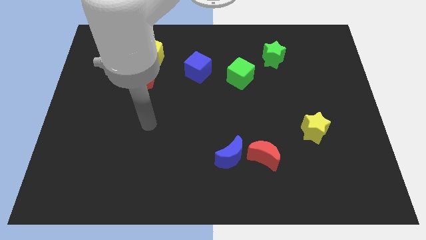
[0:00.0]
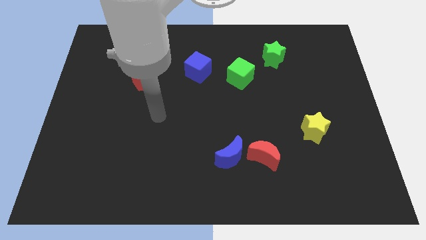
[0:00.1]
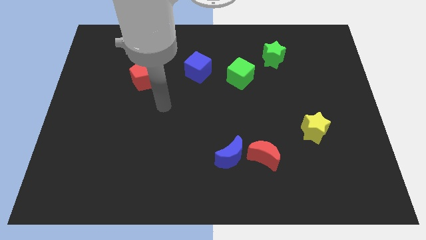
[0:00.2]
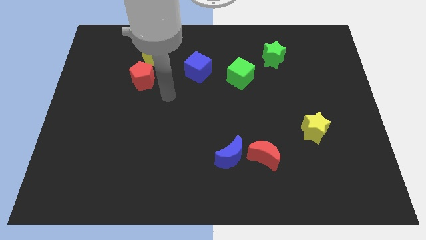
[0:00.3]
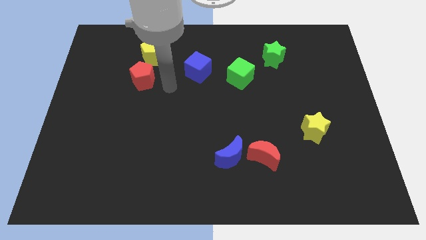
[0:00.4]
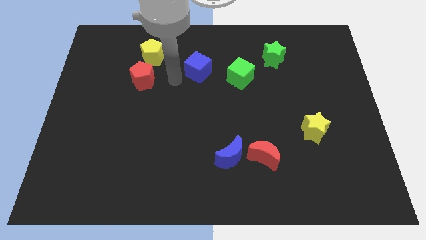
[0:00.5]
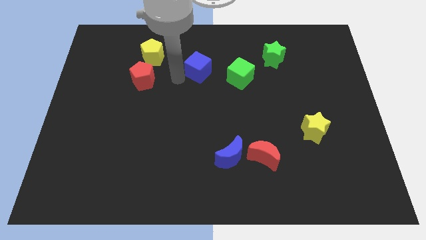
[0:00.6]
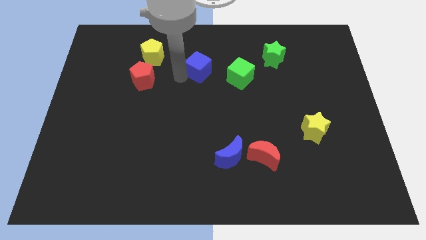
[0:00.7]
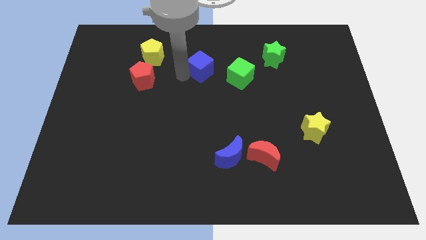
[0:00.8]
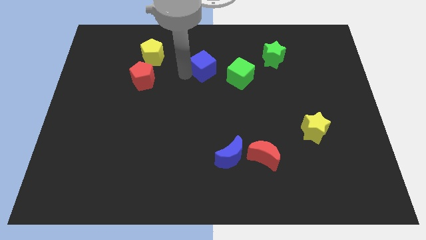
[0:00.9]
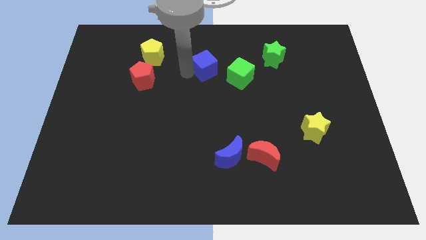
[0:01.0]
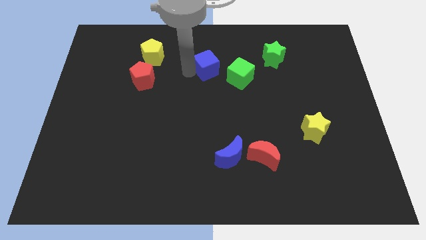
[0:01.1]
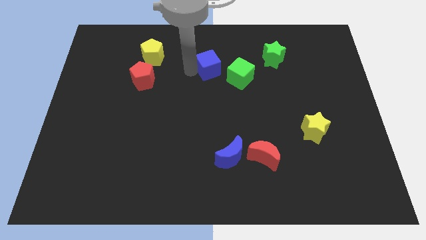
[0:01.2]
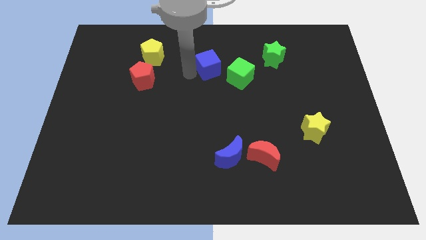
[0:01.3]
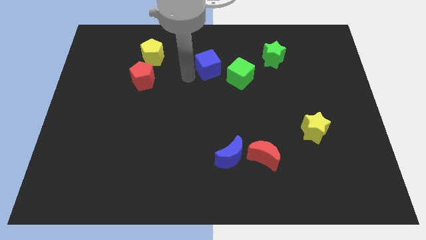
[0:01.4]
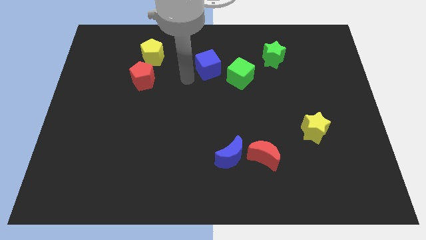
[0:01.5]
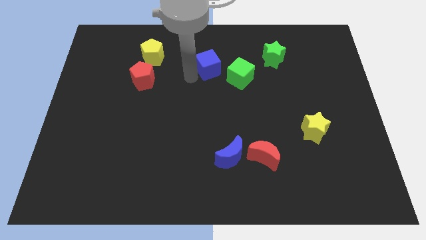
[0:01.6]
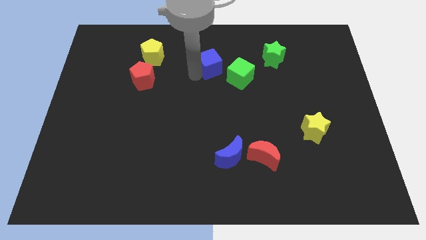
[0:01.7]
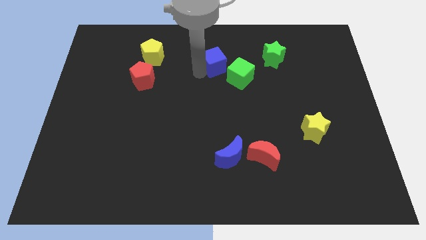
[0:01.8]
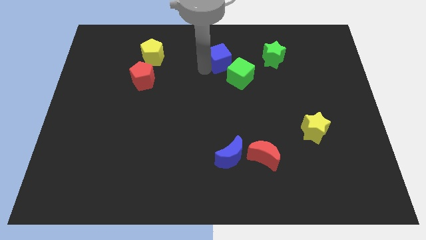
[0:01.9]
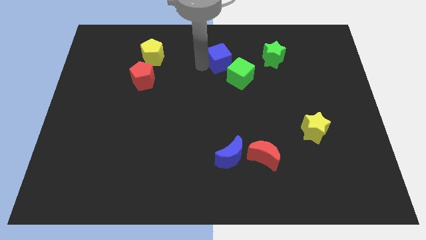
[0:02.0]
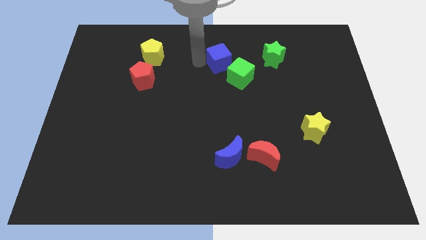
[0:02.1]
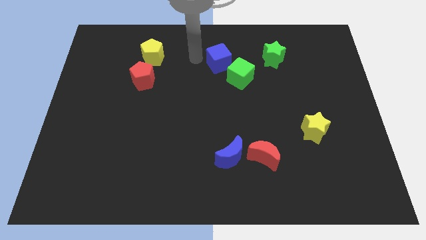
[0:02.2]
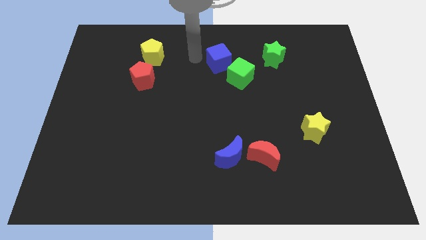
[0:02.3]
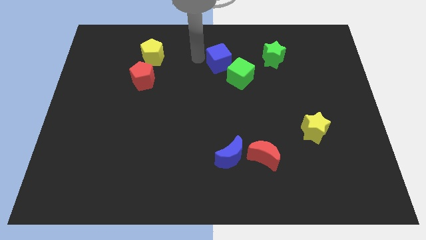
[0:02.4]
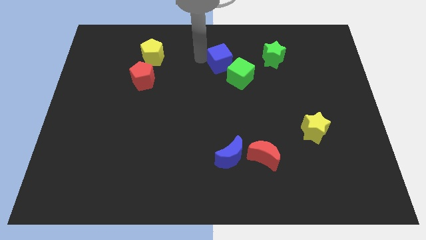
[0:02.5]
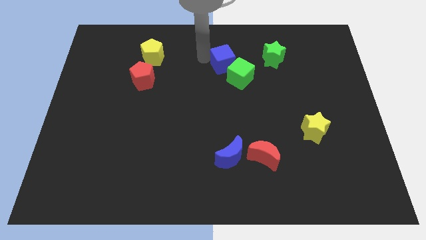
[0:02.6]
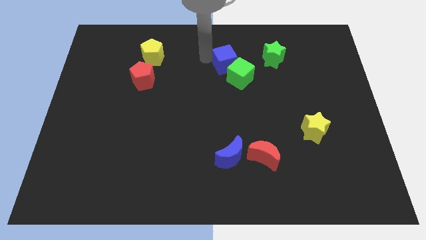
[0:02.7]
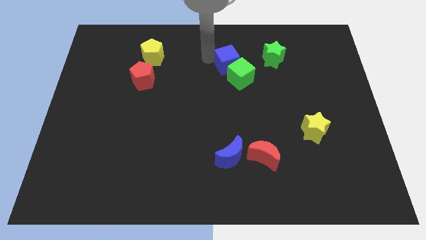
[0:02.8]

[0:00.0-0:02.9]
slightly slide the blue cube right

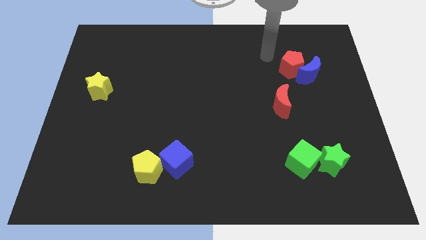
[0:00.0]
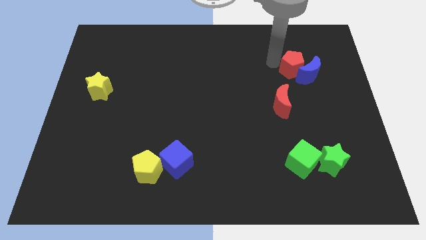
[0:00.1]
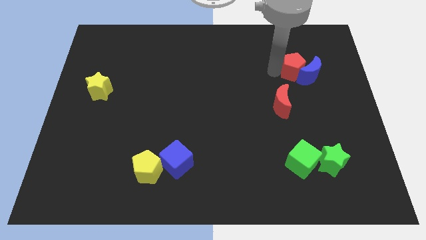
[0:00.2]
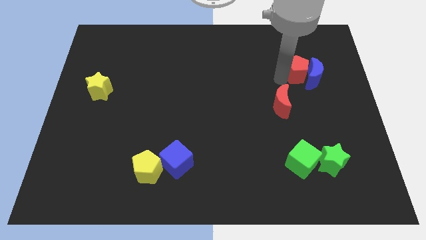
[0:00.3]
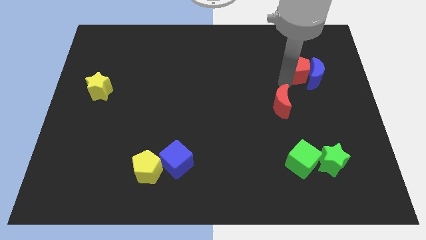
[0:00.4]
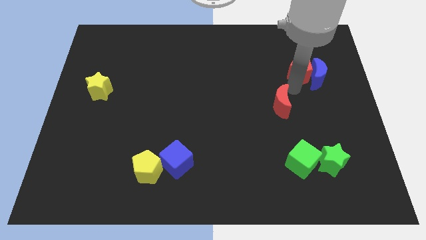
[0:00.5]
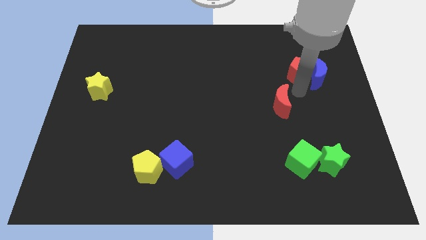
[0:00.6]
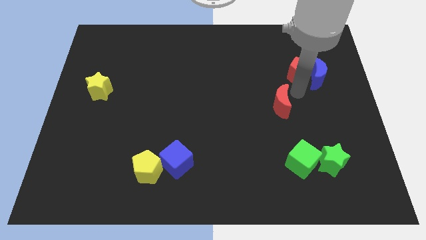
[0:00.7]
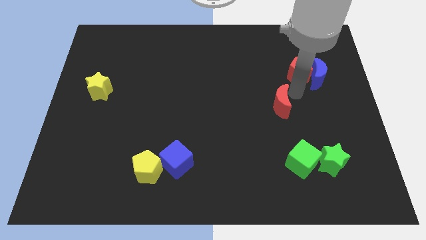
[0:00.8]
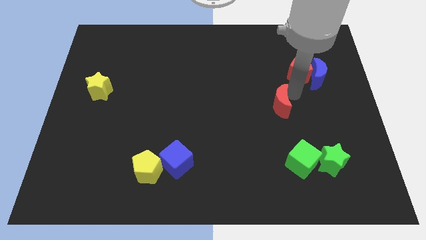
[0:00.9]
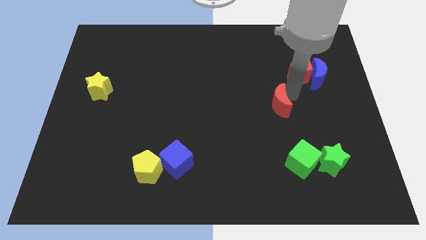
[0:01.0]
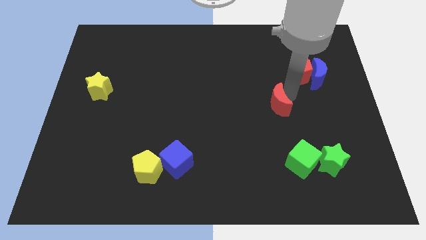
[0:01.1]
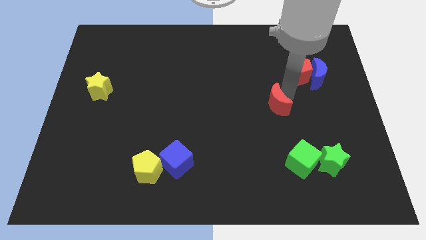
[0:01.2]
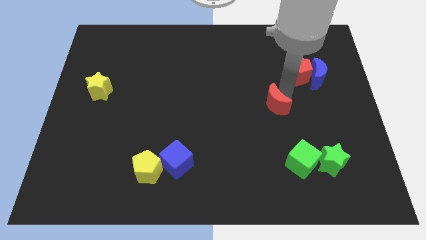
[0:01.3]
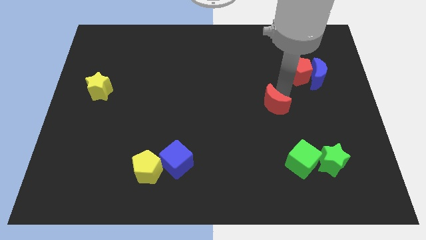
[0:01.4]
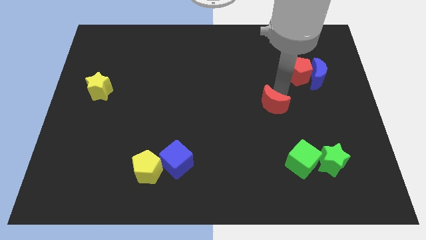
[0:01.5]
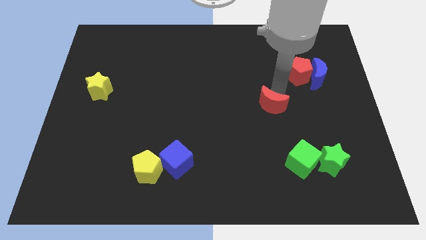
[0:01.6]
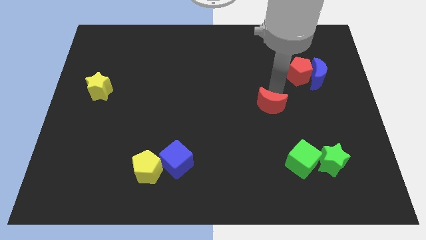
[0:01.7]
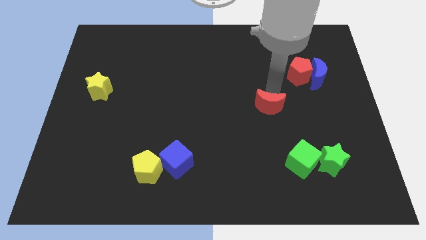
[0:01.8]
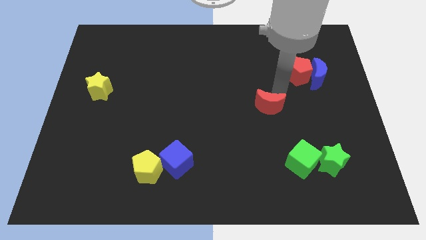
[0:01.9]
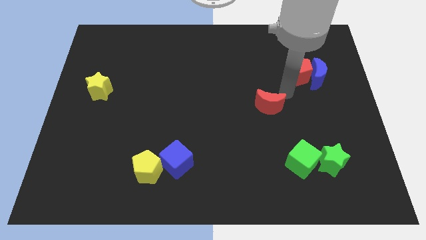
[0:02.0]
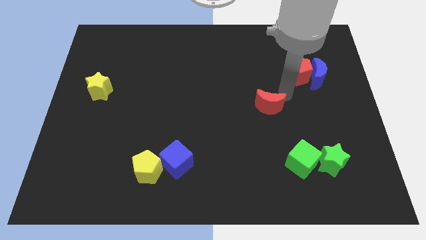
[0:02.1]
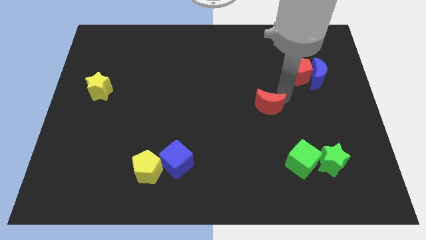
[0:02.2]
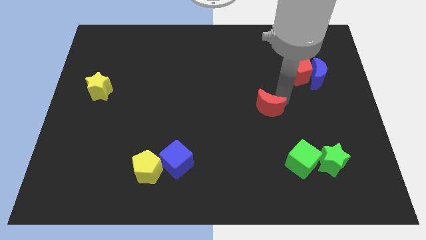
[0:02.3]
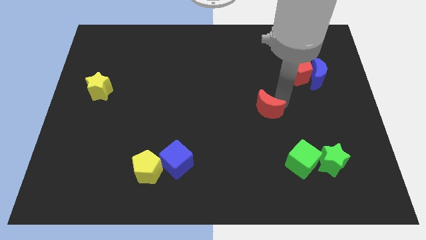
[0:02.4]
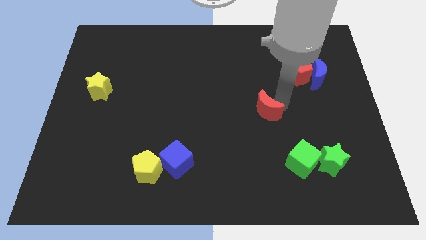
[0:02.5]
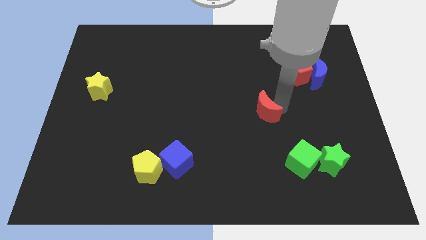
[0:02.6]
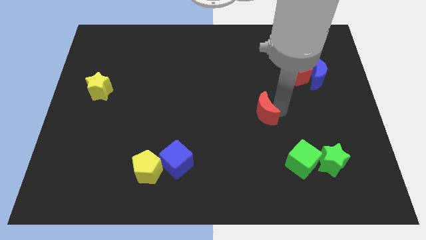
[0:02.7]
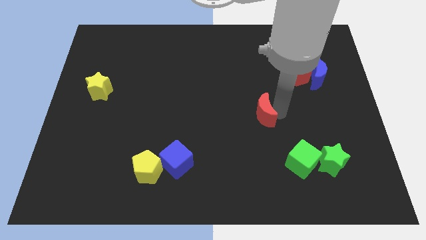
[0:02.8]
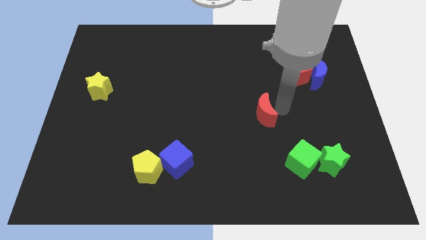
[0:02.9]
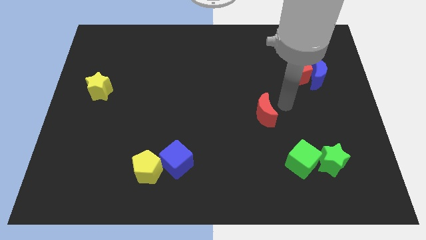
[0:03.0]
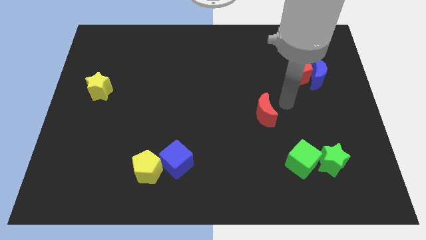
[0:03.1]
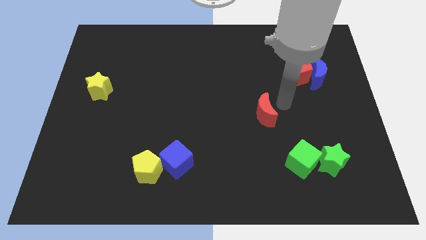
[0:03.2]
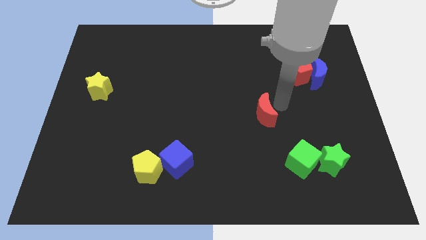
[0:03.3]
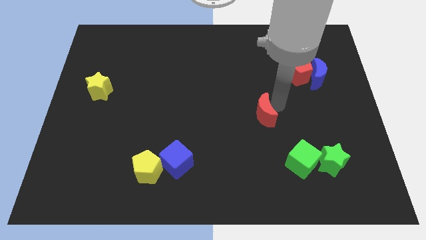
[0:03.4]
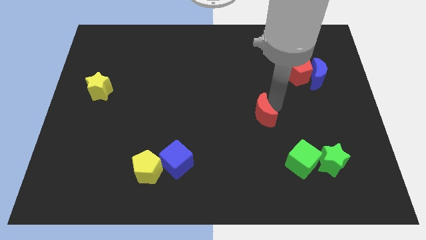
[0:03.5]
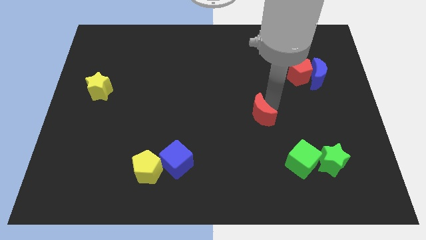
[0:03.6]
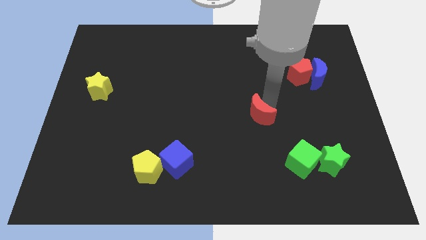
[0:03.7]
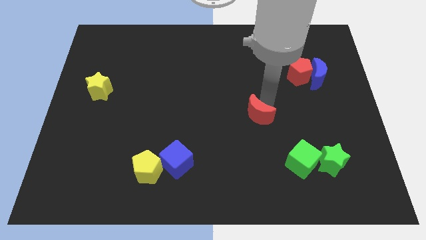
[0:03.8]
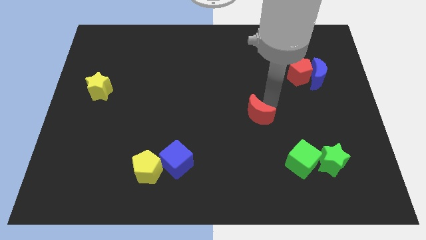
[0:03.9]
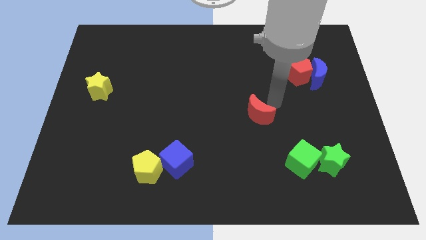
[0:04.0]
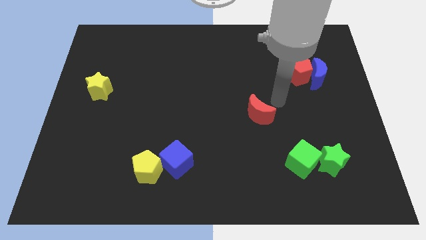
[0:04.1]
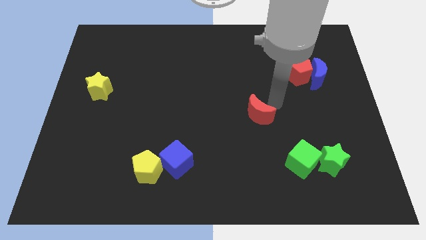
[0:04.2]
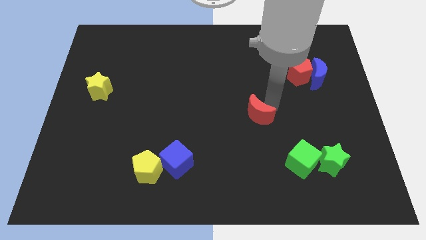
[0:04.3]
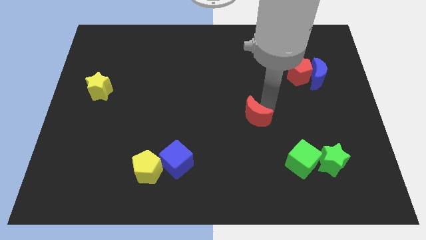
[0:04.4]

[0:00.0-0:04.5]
slightly move the red moon diagonally down and to the left

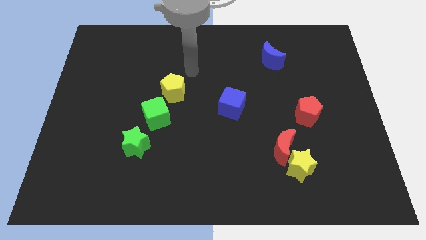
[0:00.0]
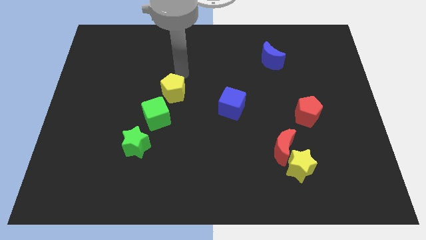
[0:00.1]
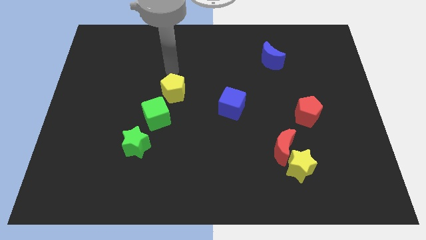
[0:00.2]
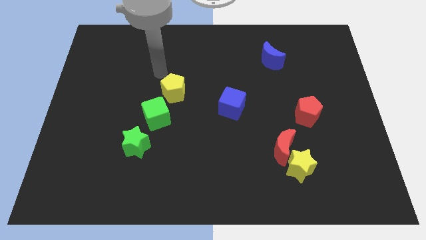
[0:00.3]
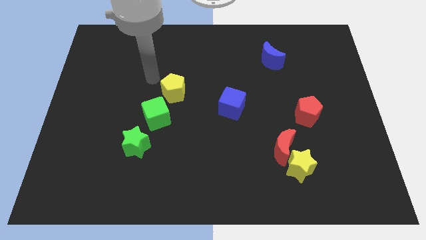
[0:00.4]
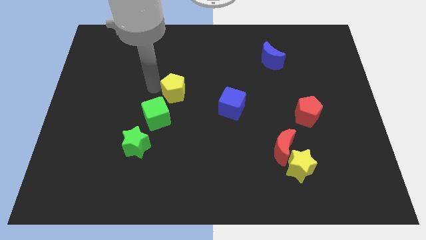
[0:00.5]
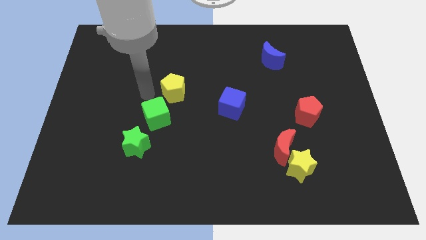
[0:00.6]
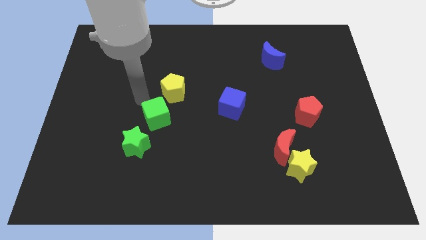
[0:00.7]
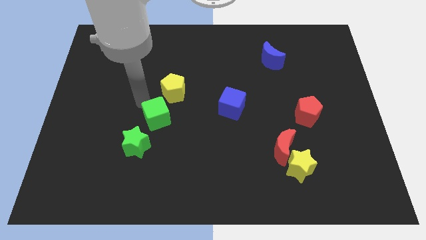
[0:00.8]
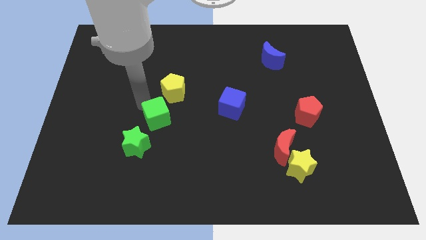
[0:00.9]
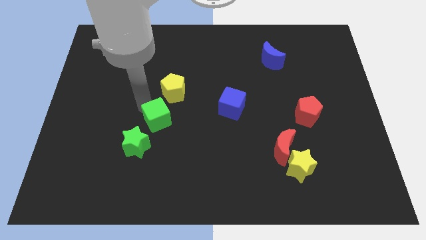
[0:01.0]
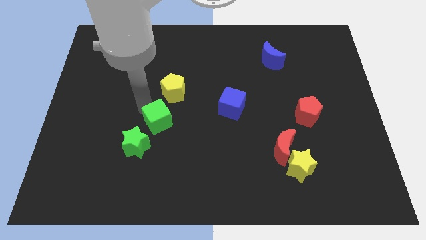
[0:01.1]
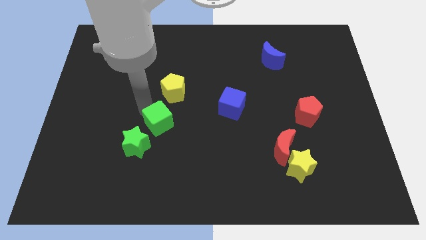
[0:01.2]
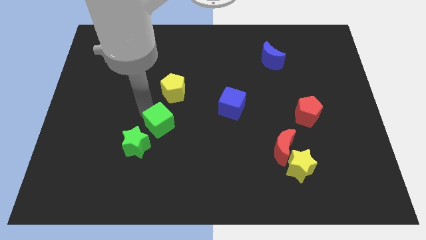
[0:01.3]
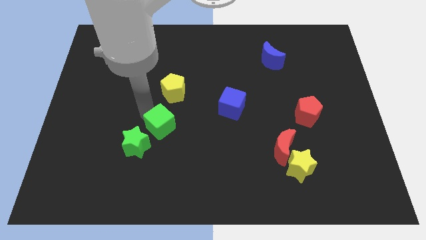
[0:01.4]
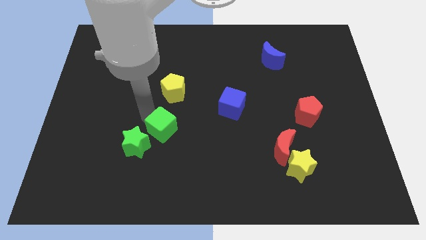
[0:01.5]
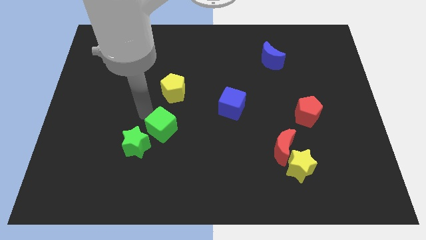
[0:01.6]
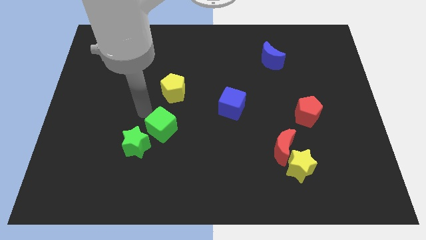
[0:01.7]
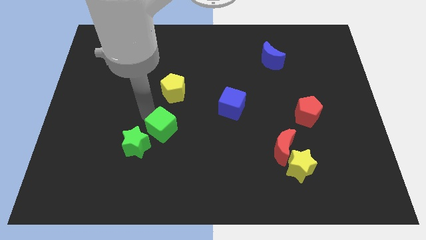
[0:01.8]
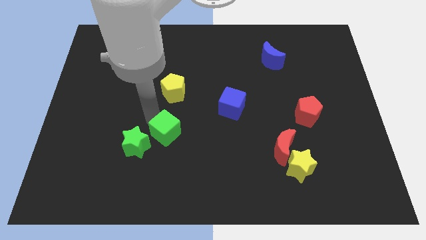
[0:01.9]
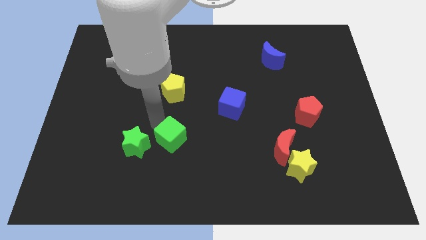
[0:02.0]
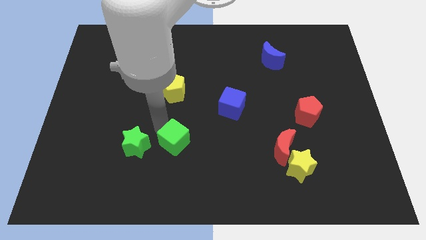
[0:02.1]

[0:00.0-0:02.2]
move the green cube downwards and then to the right slightly
